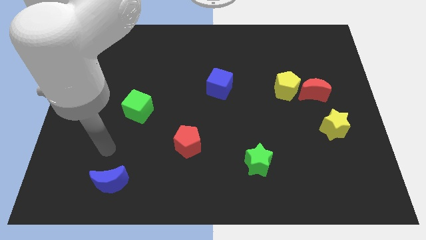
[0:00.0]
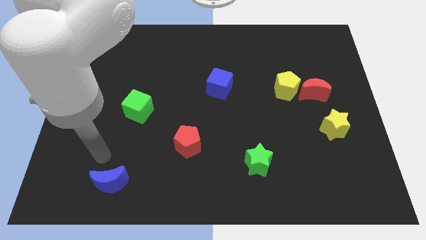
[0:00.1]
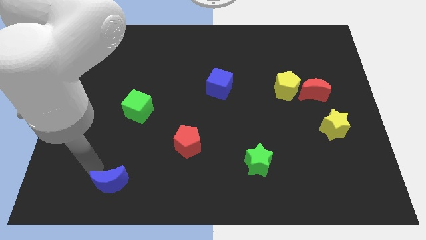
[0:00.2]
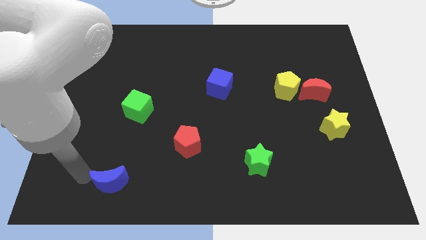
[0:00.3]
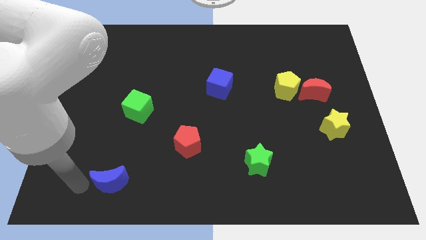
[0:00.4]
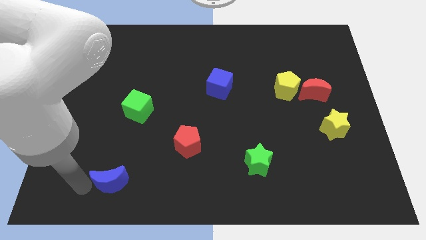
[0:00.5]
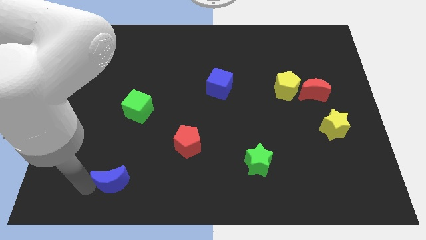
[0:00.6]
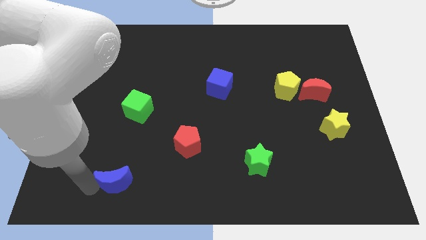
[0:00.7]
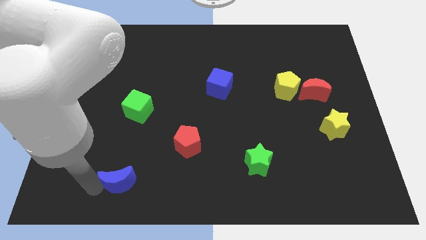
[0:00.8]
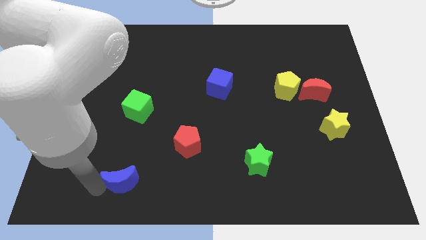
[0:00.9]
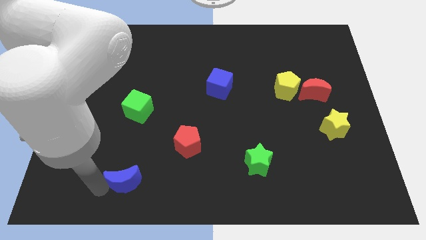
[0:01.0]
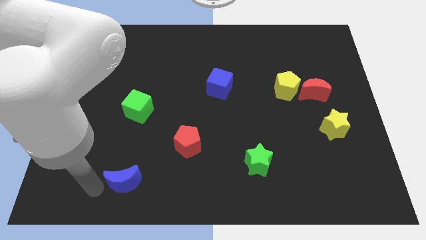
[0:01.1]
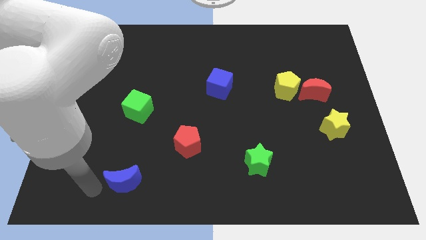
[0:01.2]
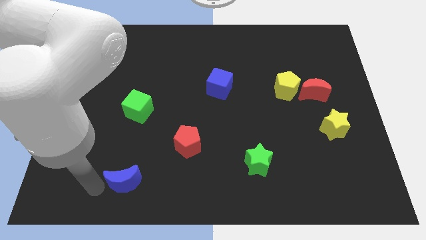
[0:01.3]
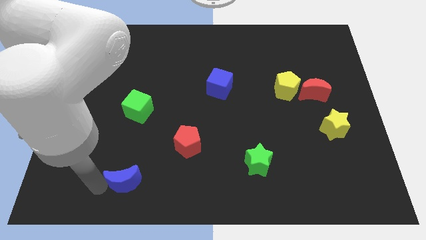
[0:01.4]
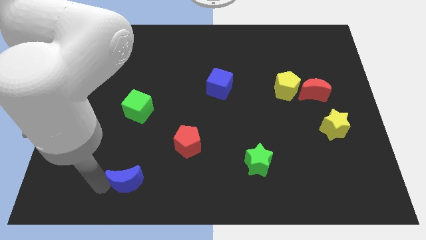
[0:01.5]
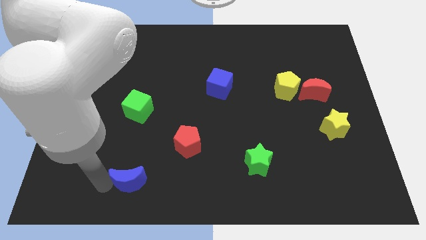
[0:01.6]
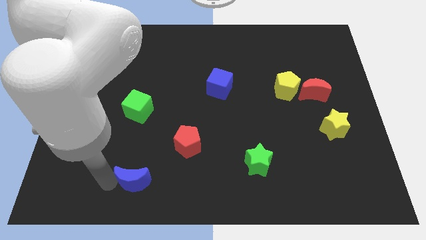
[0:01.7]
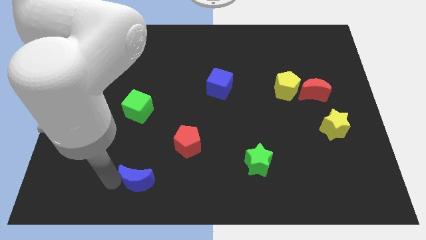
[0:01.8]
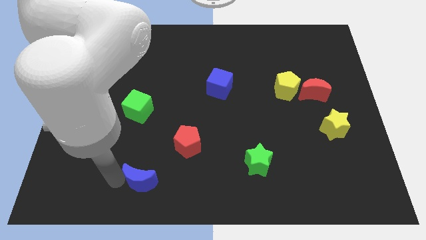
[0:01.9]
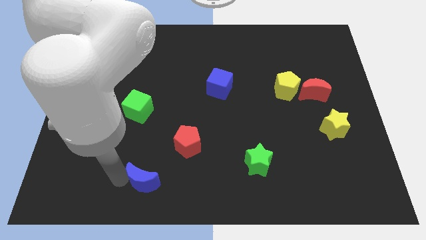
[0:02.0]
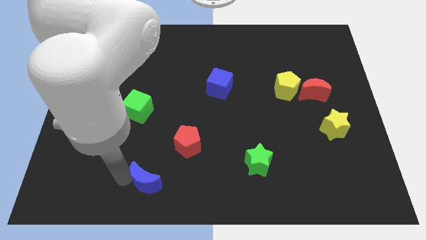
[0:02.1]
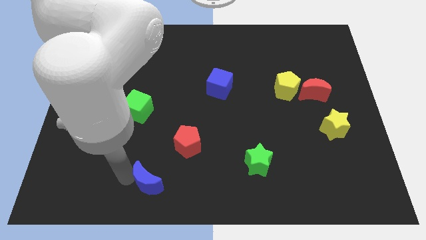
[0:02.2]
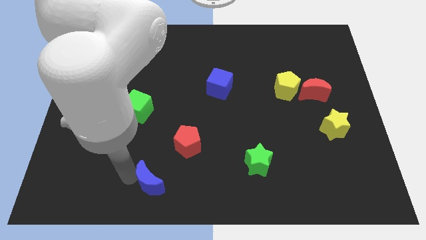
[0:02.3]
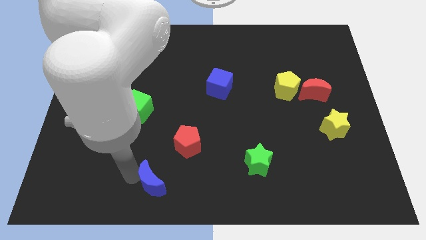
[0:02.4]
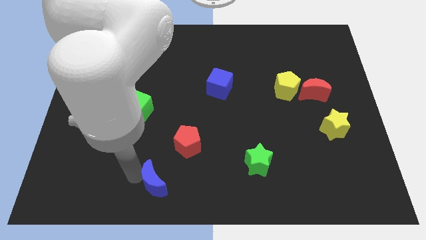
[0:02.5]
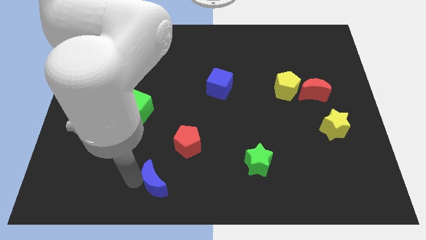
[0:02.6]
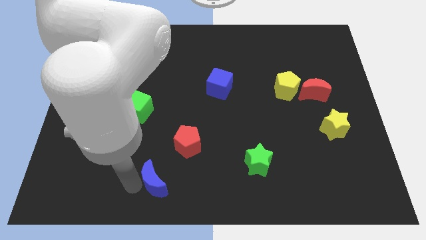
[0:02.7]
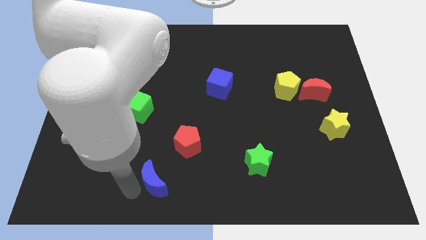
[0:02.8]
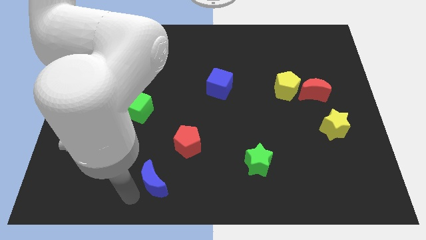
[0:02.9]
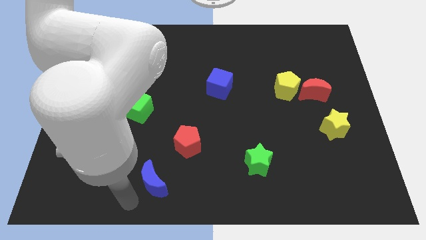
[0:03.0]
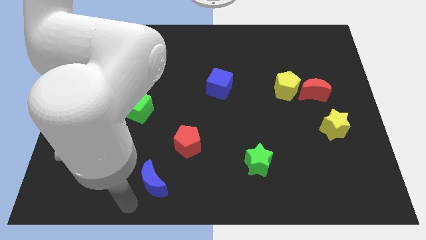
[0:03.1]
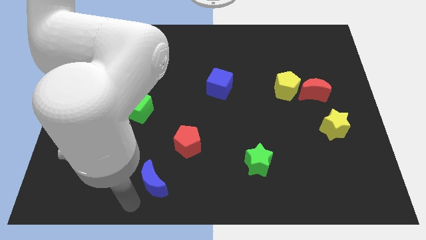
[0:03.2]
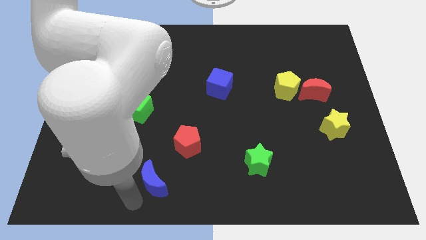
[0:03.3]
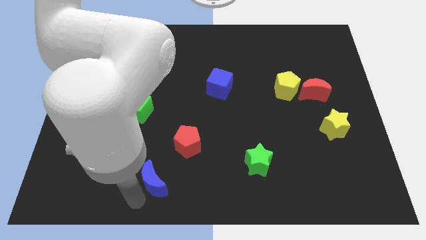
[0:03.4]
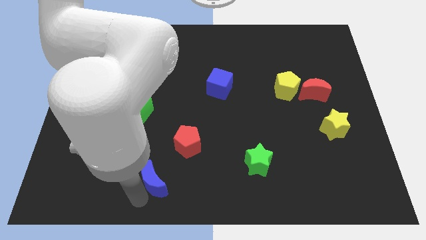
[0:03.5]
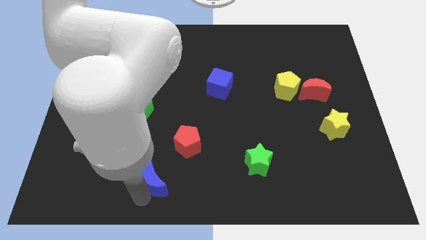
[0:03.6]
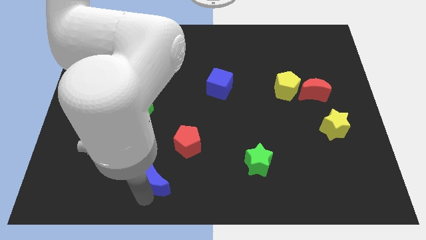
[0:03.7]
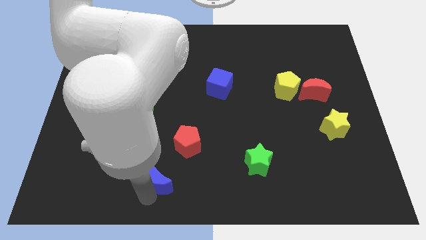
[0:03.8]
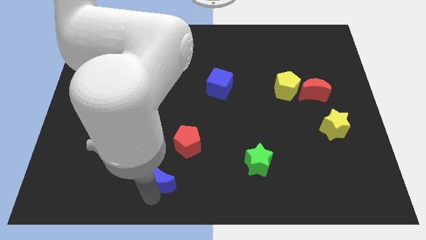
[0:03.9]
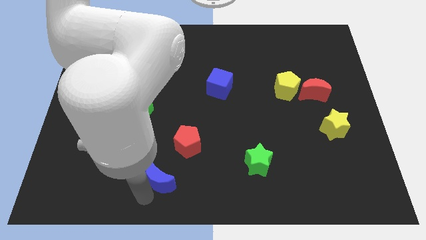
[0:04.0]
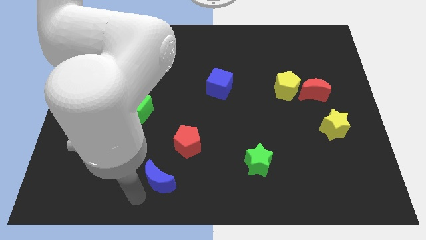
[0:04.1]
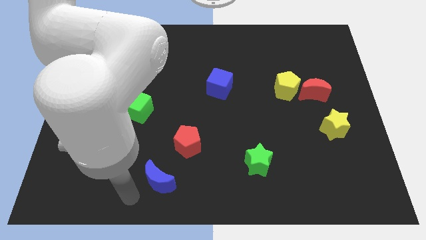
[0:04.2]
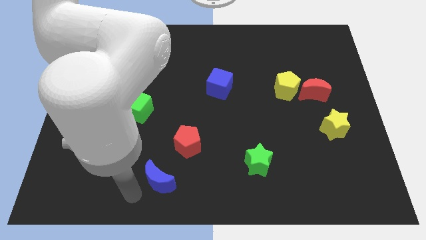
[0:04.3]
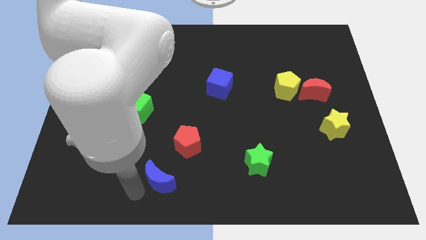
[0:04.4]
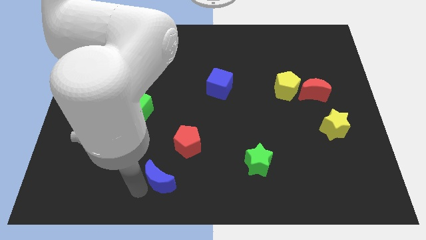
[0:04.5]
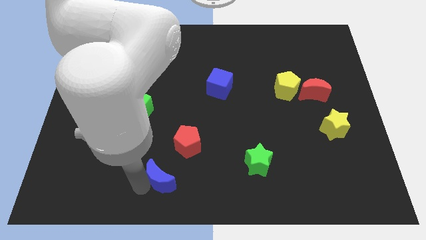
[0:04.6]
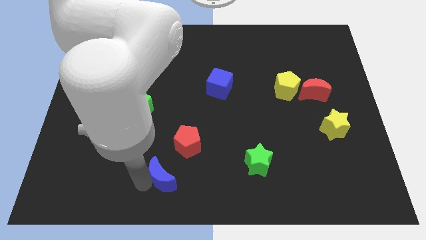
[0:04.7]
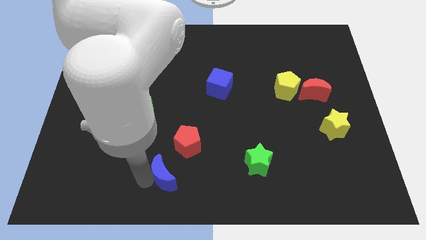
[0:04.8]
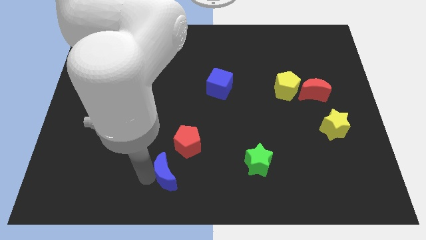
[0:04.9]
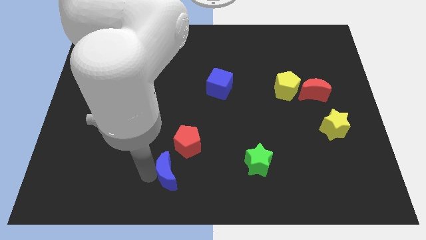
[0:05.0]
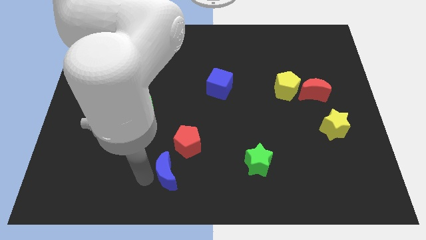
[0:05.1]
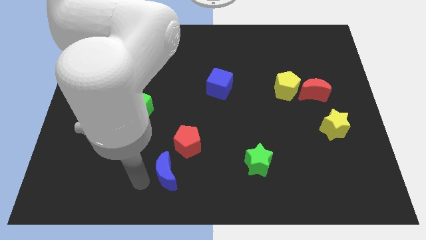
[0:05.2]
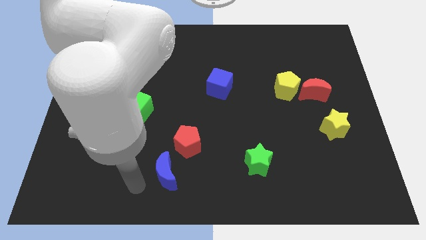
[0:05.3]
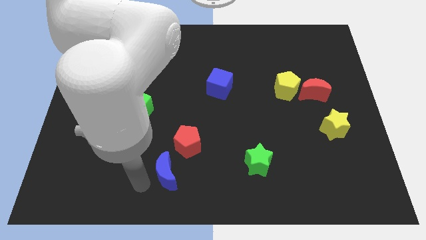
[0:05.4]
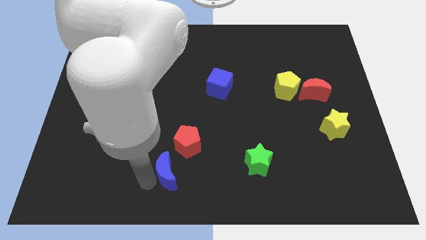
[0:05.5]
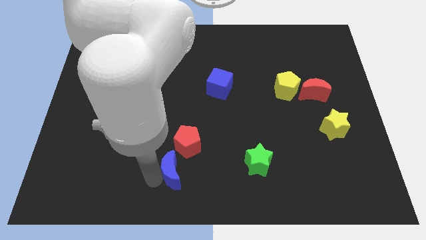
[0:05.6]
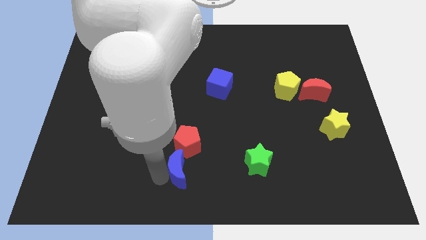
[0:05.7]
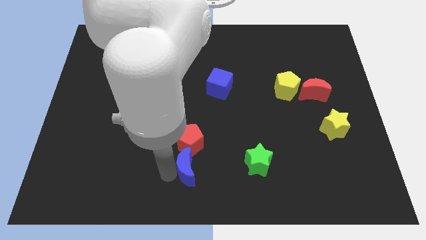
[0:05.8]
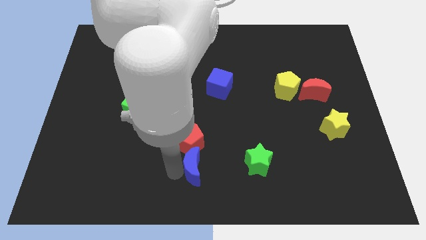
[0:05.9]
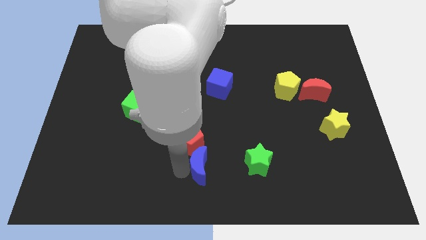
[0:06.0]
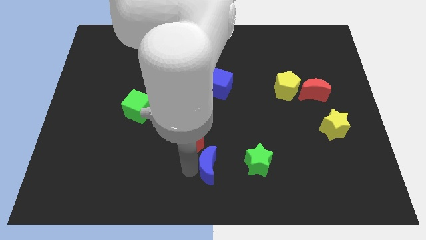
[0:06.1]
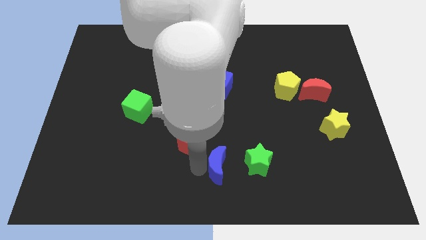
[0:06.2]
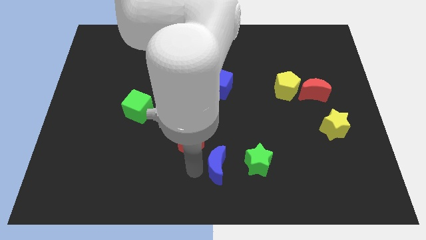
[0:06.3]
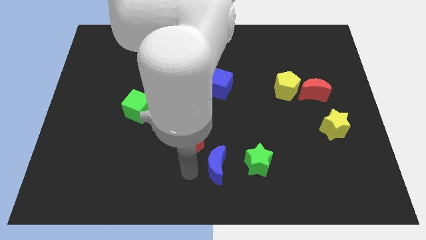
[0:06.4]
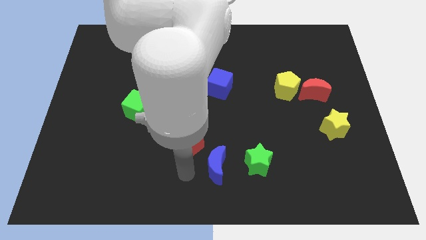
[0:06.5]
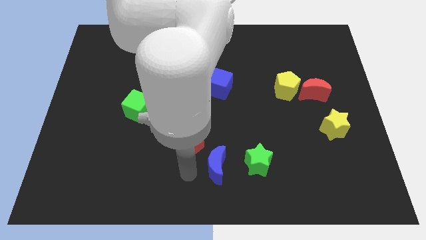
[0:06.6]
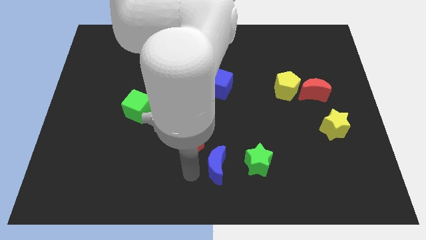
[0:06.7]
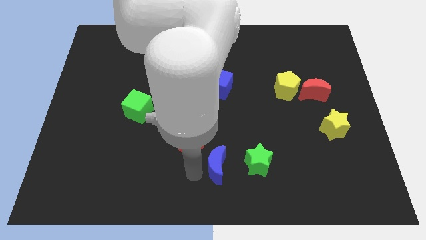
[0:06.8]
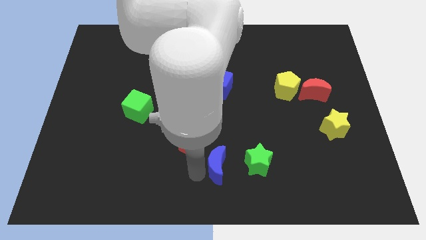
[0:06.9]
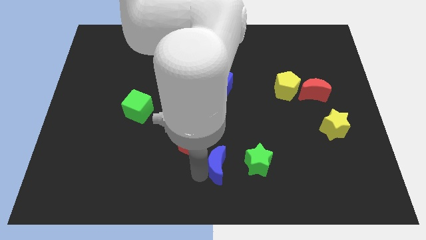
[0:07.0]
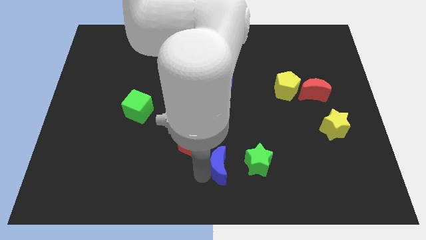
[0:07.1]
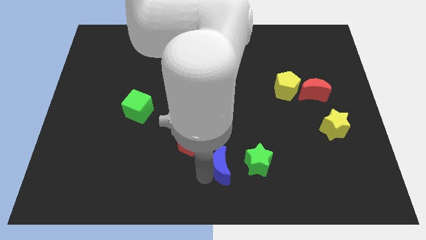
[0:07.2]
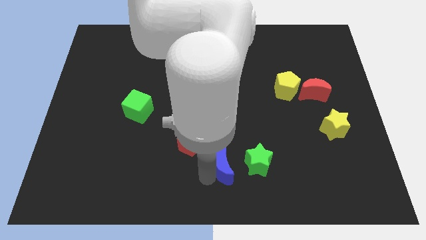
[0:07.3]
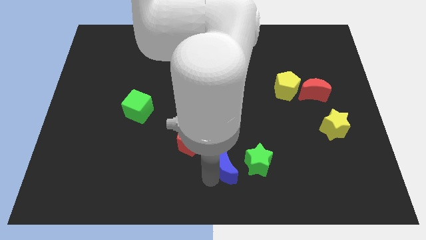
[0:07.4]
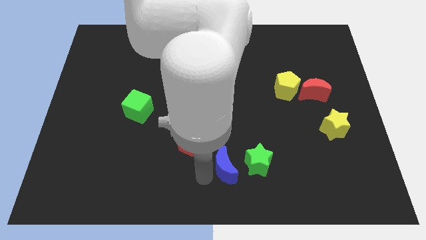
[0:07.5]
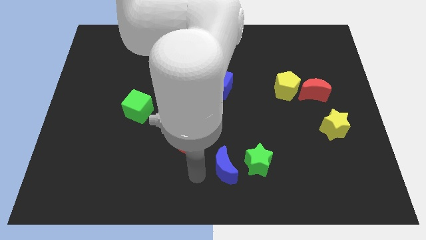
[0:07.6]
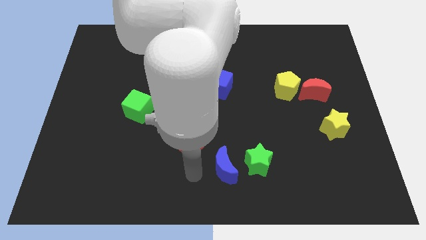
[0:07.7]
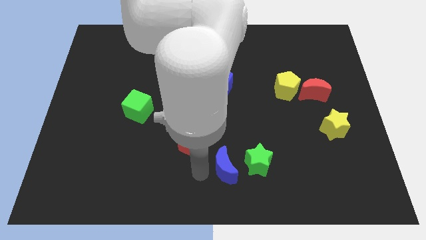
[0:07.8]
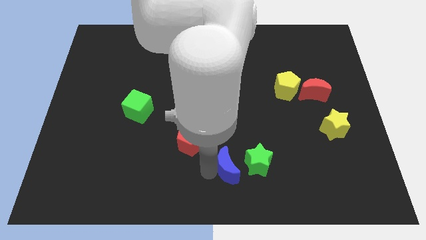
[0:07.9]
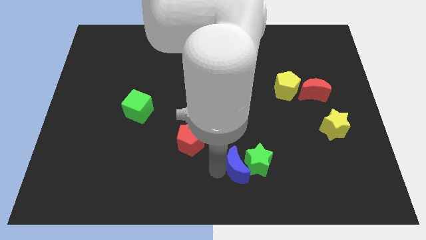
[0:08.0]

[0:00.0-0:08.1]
slide the blue moon next to the green star
